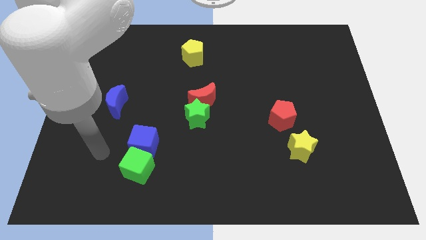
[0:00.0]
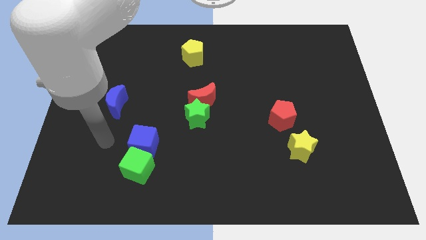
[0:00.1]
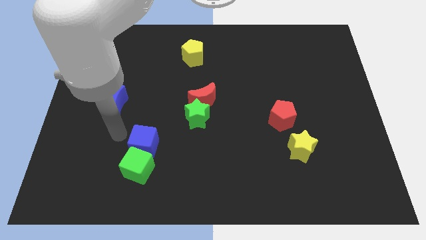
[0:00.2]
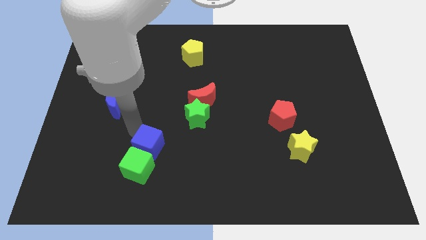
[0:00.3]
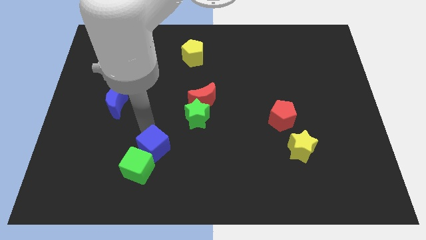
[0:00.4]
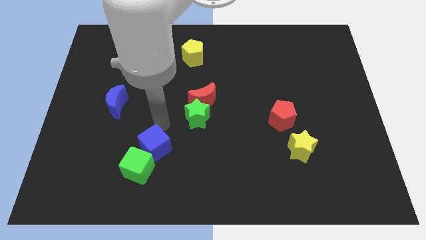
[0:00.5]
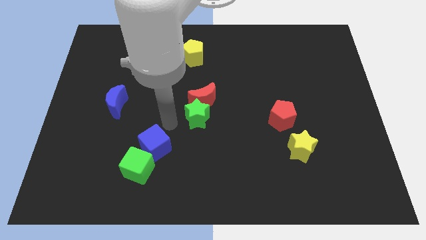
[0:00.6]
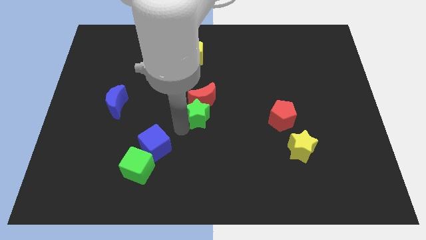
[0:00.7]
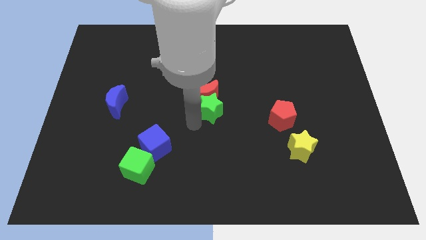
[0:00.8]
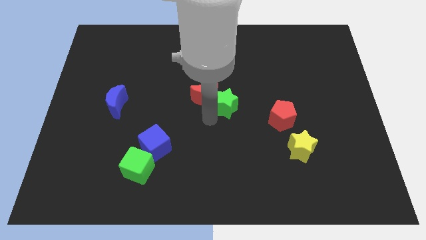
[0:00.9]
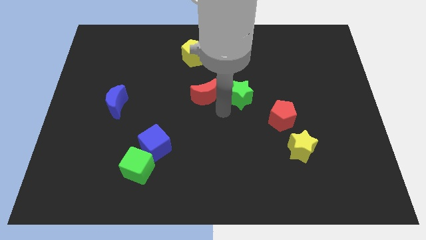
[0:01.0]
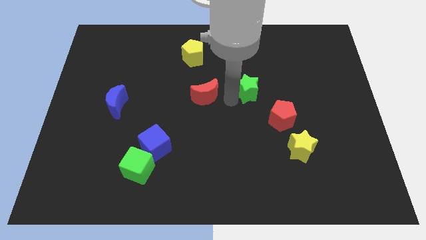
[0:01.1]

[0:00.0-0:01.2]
pull the red moon apart from the green star

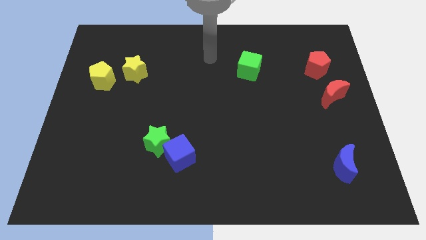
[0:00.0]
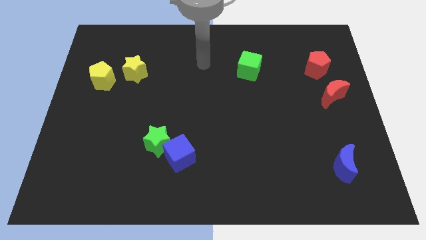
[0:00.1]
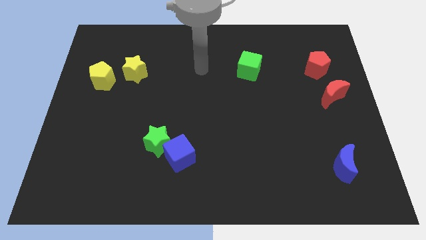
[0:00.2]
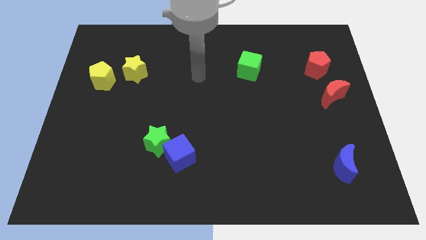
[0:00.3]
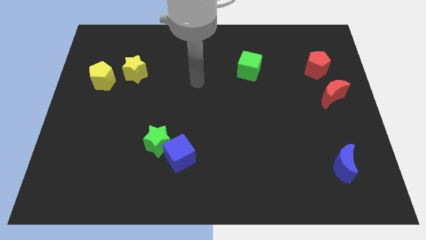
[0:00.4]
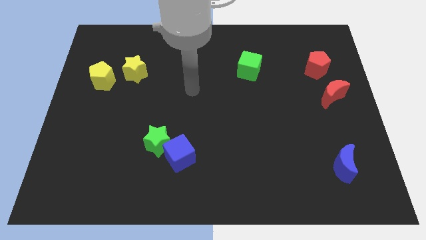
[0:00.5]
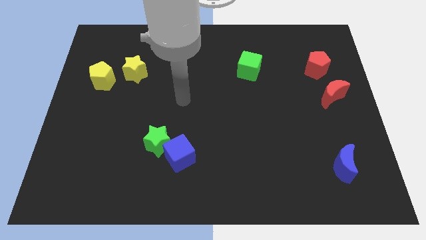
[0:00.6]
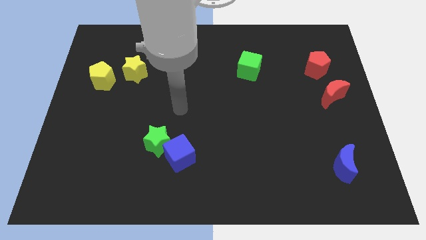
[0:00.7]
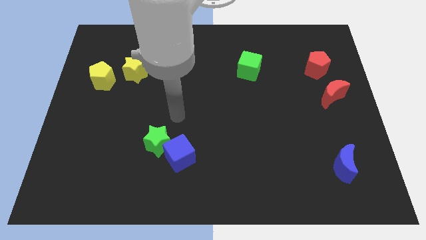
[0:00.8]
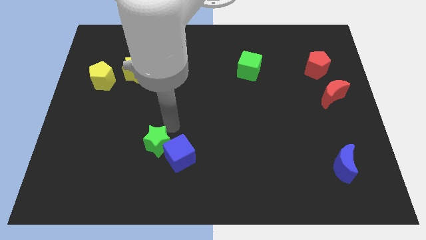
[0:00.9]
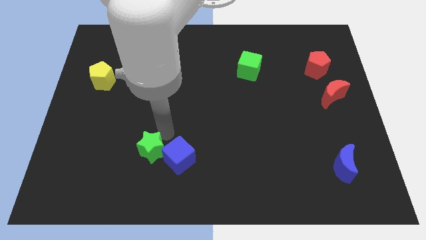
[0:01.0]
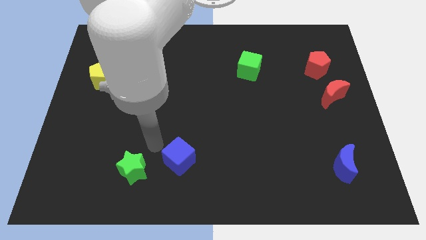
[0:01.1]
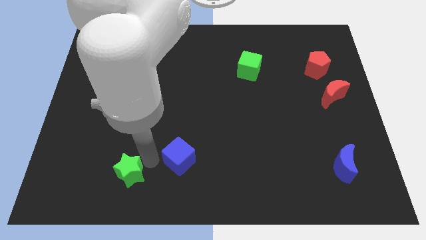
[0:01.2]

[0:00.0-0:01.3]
pull the blue cube apart from the green star

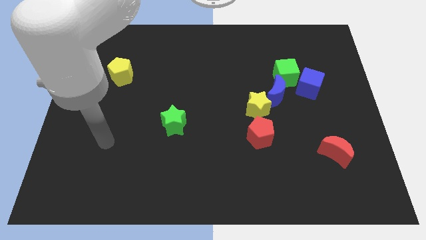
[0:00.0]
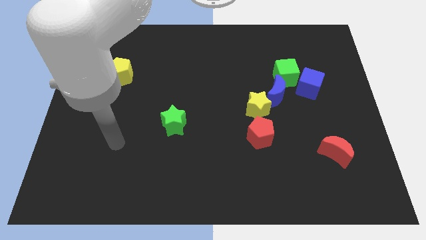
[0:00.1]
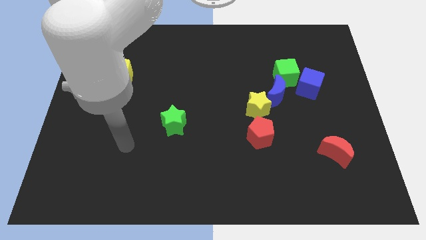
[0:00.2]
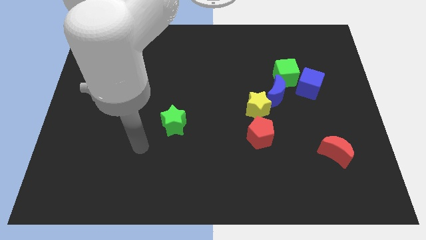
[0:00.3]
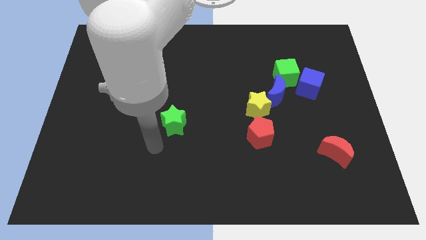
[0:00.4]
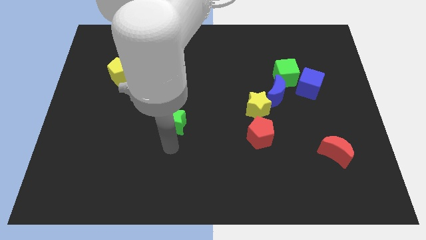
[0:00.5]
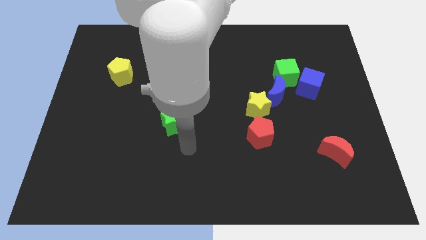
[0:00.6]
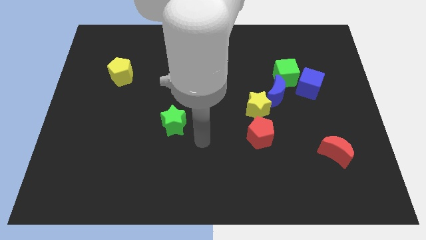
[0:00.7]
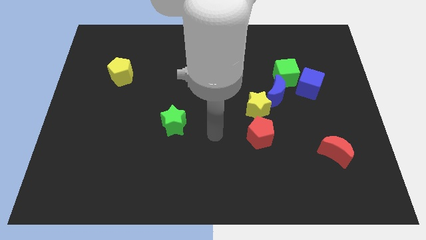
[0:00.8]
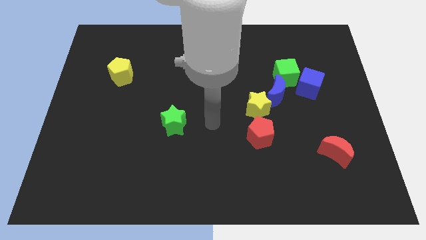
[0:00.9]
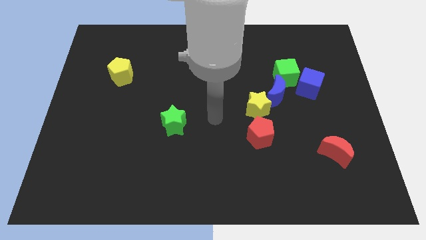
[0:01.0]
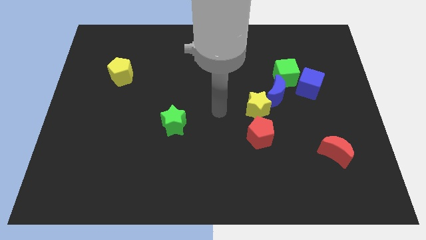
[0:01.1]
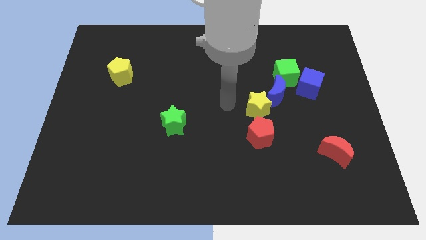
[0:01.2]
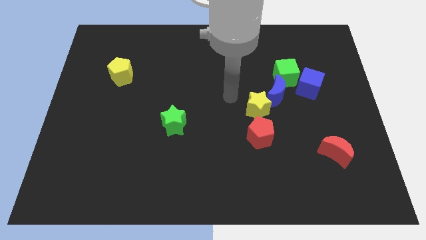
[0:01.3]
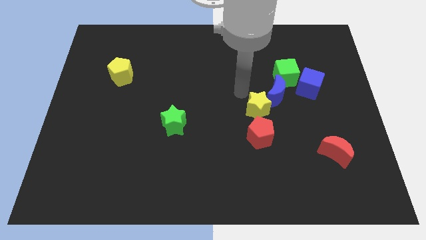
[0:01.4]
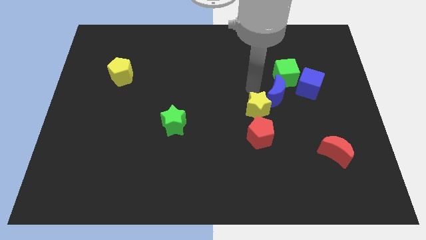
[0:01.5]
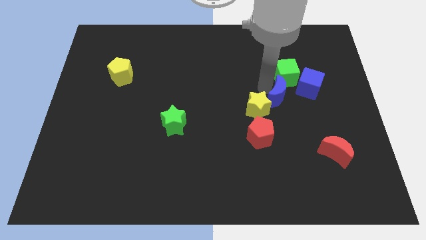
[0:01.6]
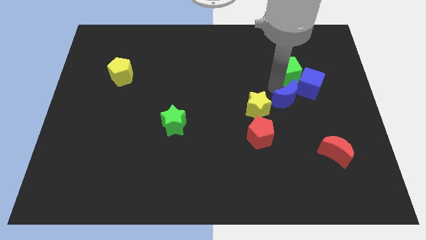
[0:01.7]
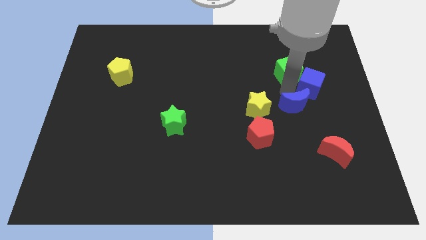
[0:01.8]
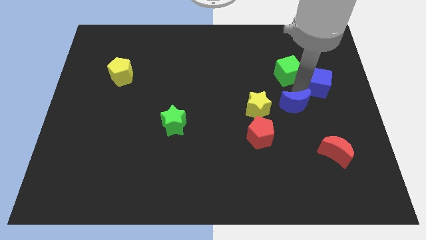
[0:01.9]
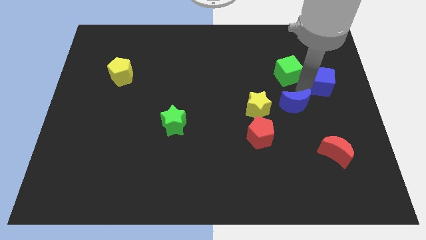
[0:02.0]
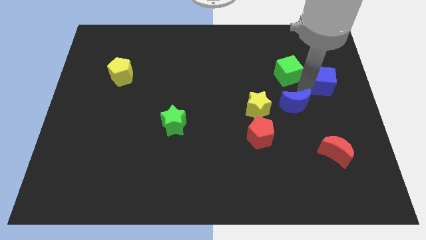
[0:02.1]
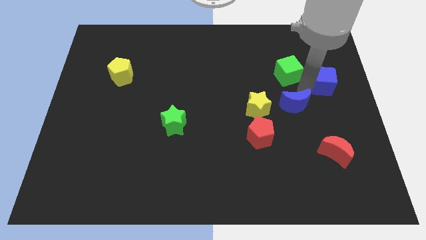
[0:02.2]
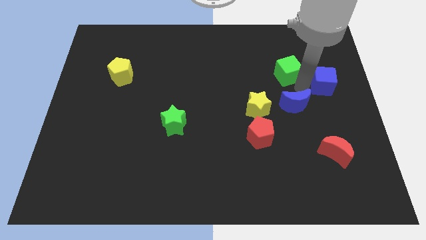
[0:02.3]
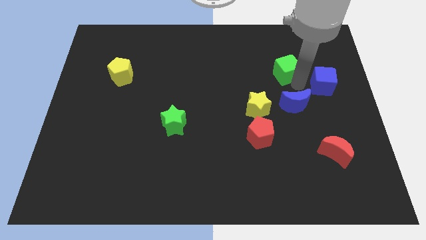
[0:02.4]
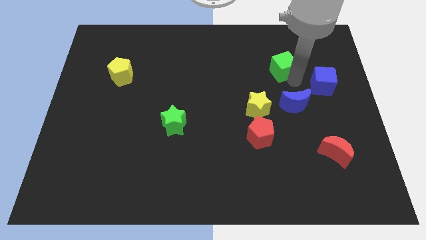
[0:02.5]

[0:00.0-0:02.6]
pull the green cube apart from the blue cube and blue moon

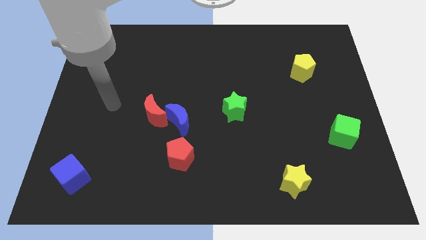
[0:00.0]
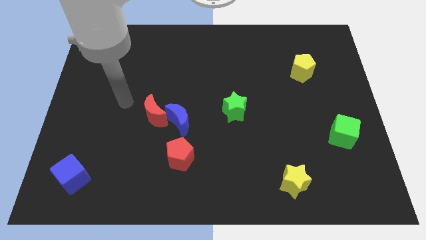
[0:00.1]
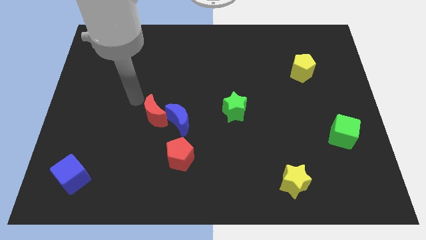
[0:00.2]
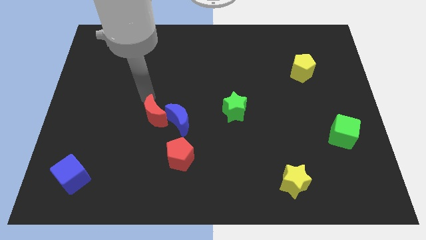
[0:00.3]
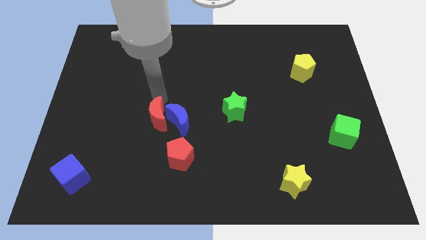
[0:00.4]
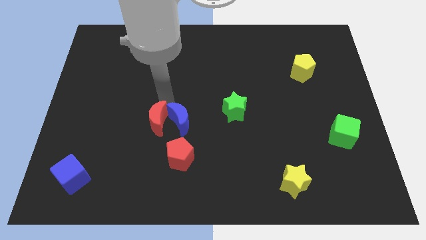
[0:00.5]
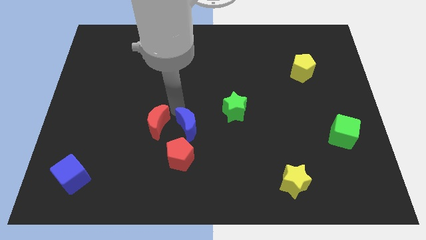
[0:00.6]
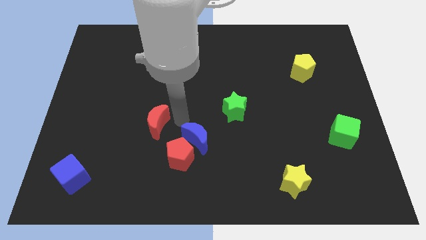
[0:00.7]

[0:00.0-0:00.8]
pull the red moon apart from the blue moon

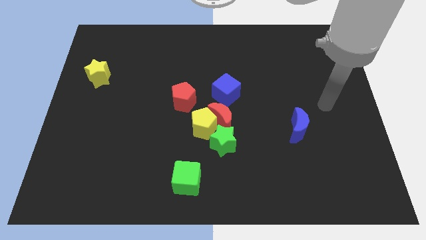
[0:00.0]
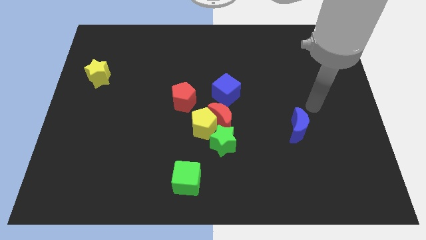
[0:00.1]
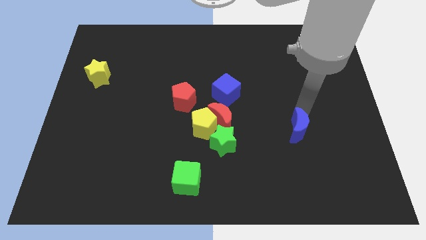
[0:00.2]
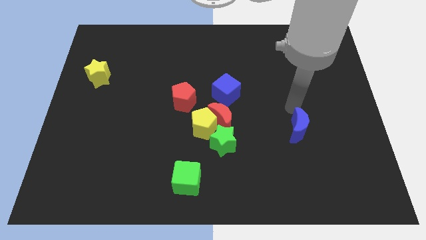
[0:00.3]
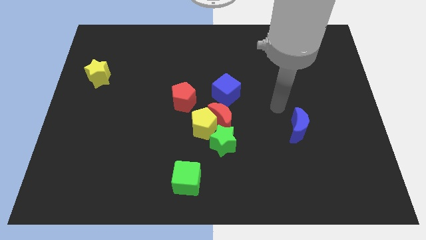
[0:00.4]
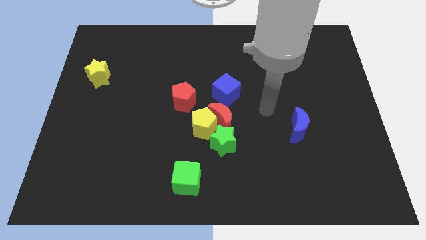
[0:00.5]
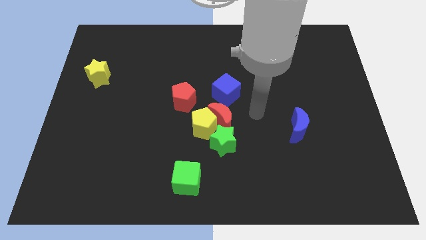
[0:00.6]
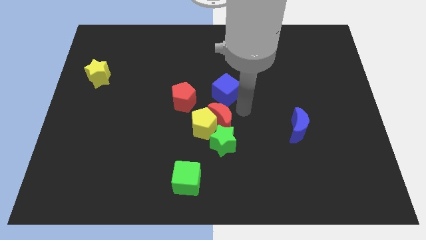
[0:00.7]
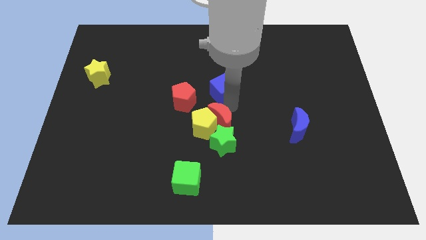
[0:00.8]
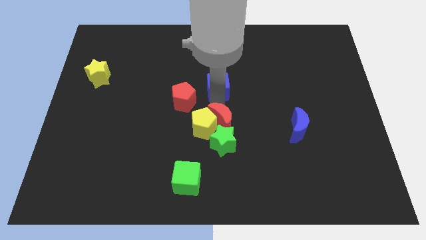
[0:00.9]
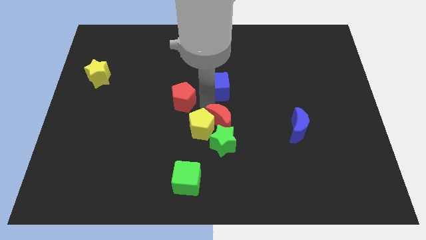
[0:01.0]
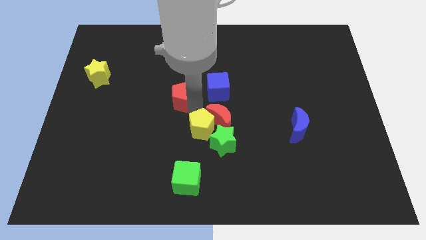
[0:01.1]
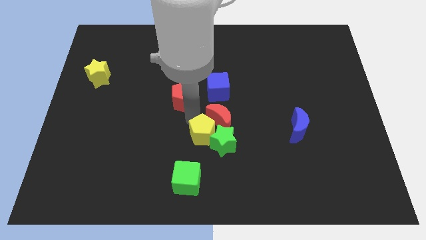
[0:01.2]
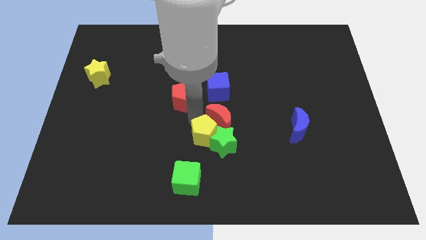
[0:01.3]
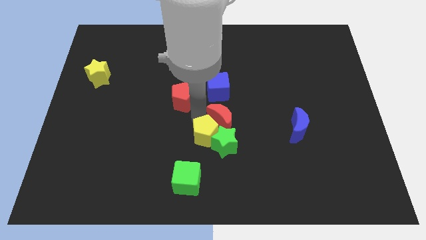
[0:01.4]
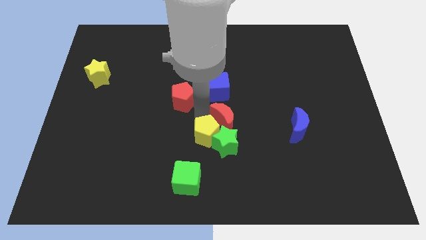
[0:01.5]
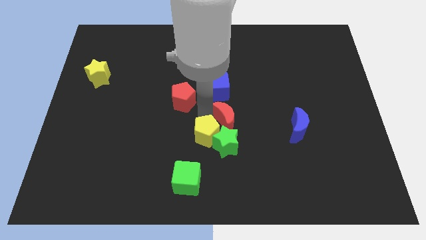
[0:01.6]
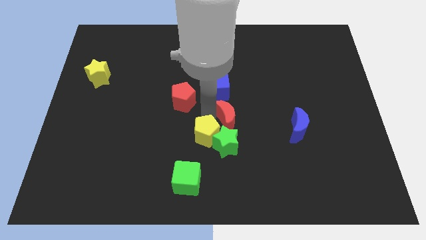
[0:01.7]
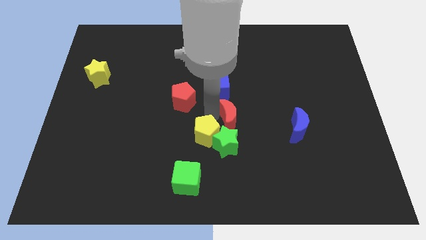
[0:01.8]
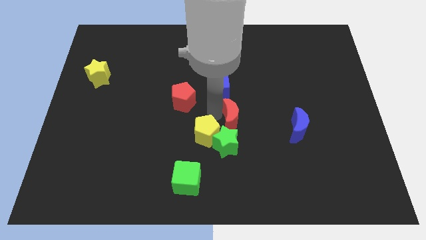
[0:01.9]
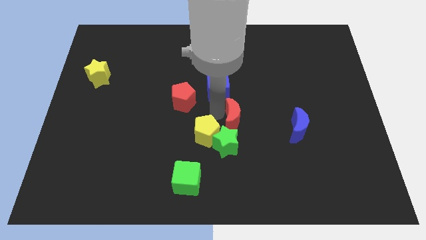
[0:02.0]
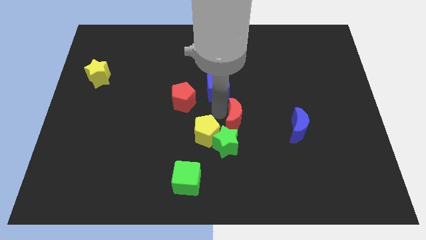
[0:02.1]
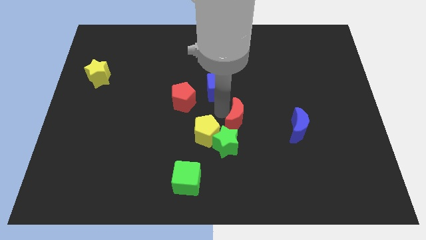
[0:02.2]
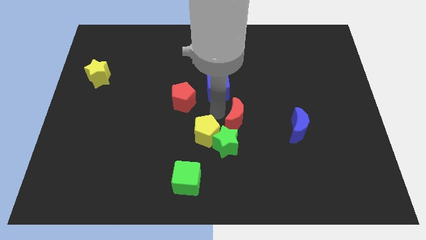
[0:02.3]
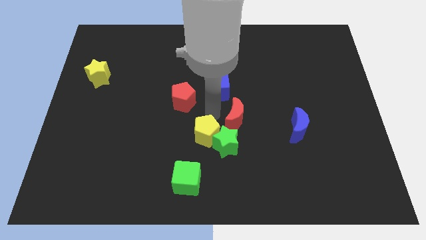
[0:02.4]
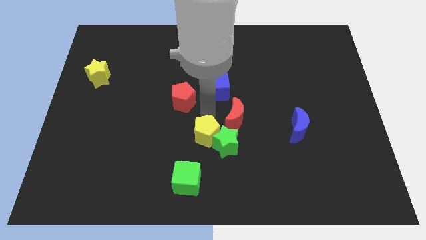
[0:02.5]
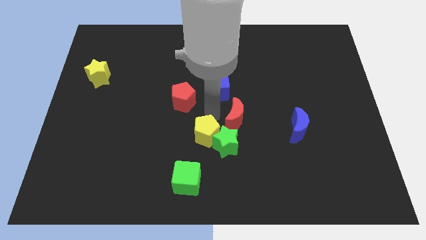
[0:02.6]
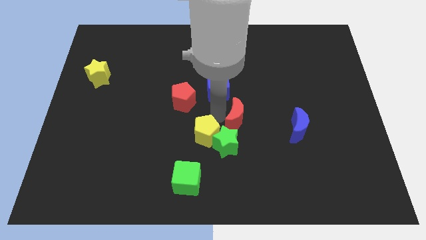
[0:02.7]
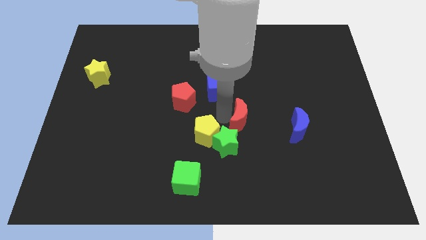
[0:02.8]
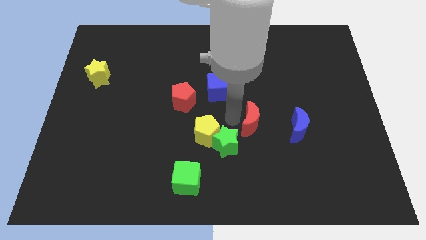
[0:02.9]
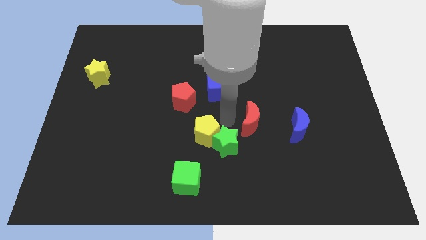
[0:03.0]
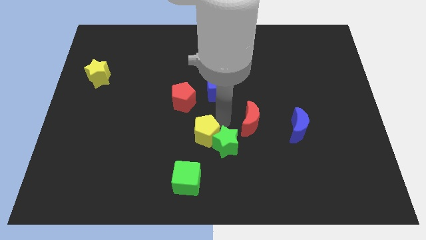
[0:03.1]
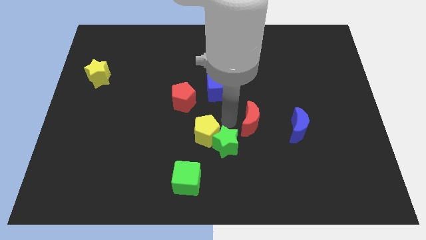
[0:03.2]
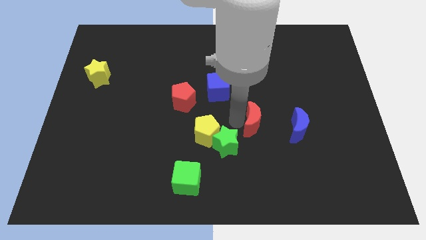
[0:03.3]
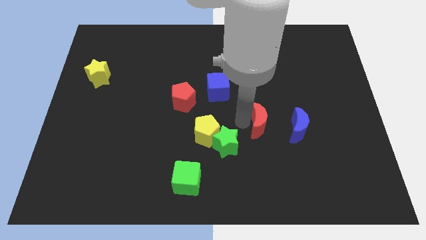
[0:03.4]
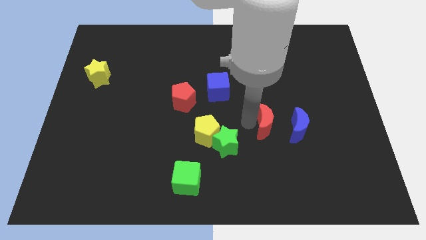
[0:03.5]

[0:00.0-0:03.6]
separate the red moon from the yellow pentagon, green star, and blue cube
